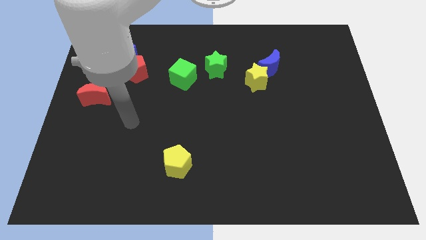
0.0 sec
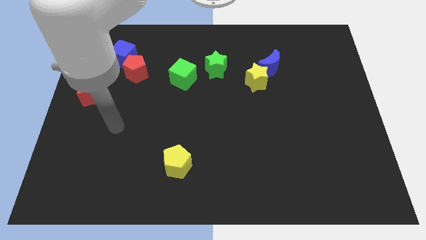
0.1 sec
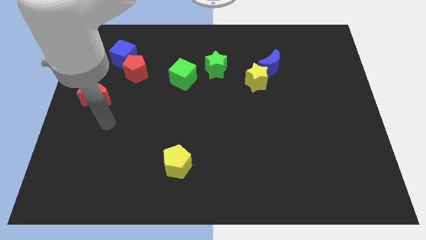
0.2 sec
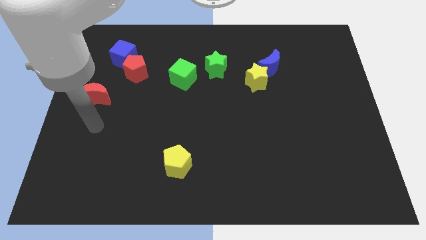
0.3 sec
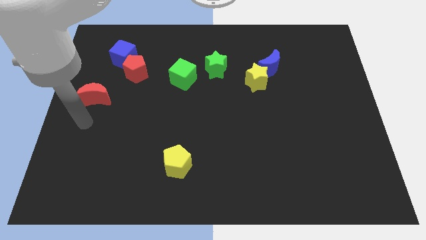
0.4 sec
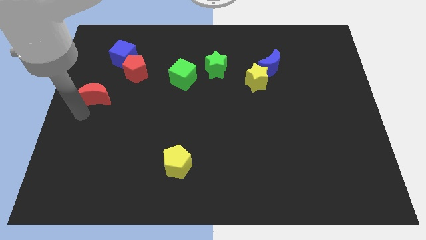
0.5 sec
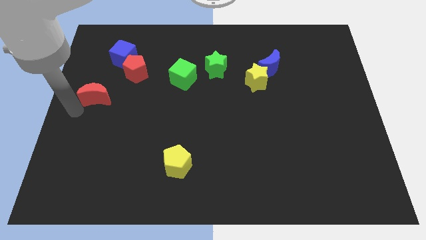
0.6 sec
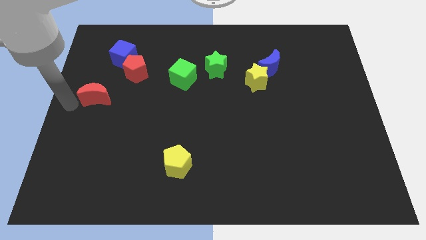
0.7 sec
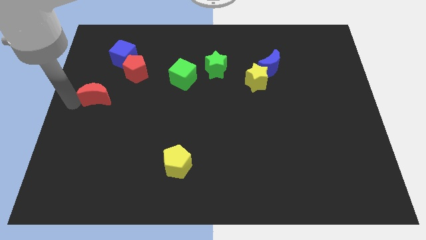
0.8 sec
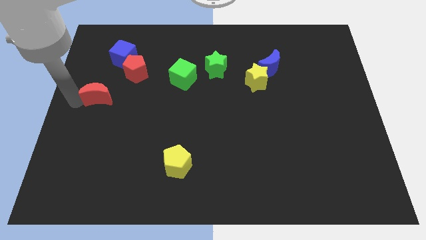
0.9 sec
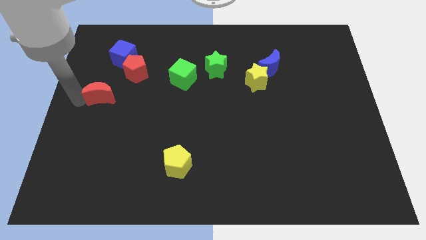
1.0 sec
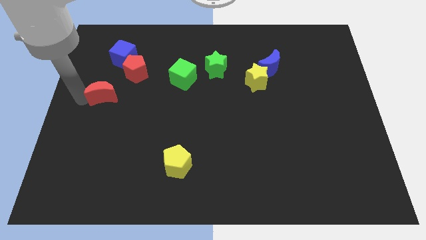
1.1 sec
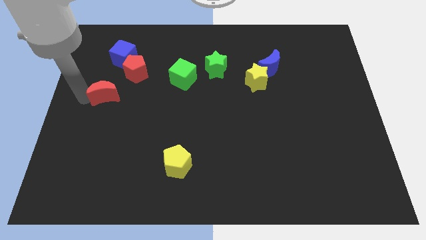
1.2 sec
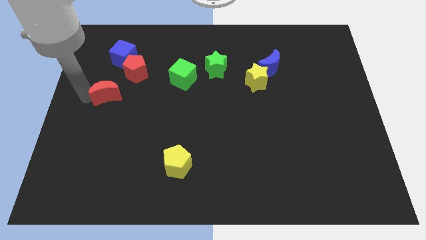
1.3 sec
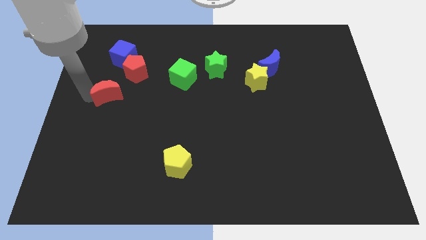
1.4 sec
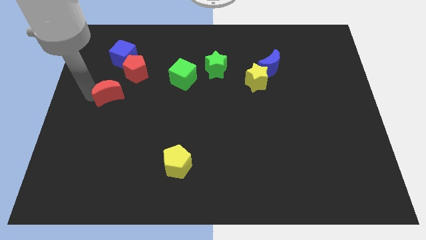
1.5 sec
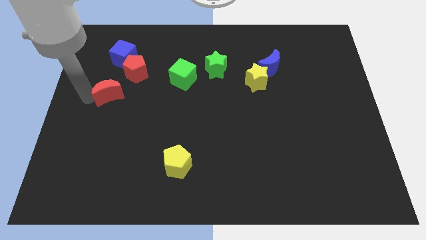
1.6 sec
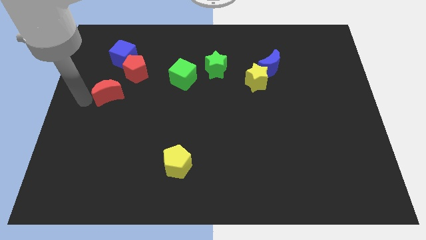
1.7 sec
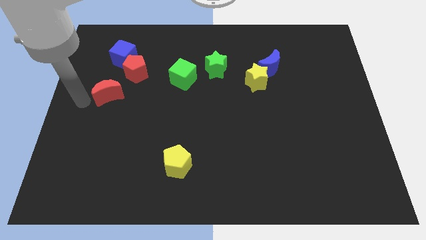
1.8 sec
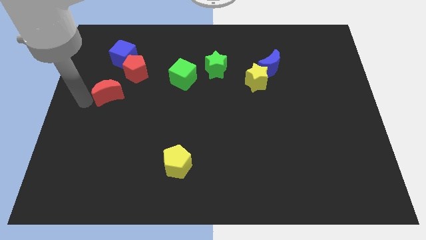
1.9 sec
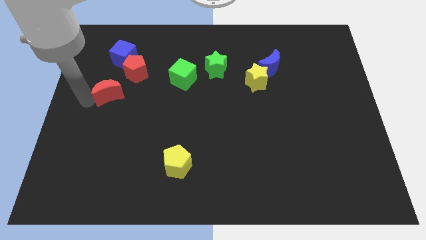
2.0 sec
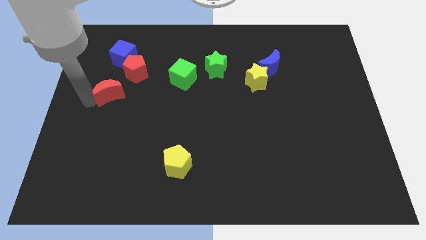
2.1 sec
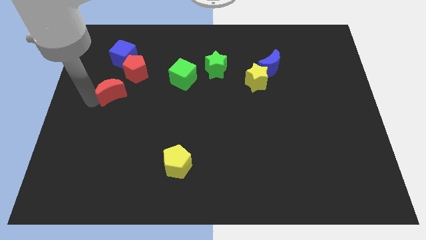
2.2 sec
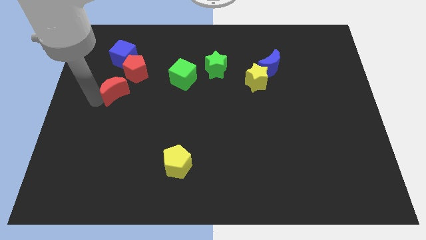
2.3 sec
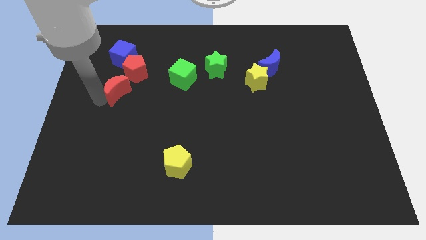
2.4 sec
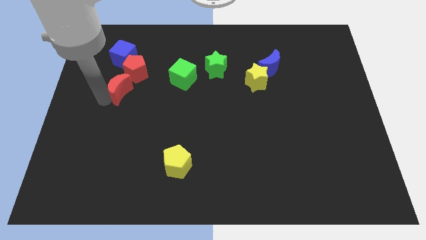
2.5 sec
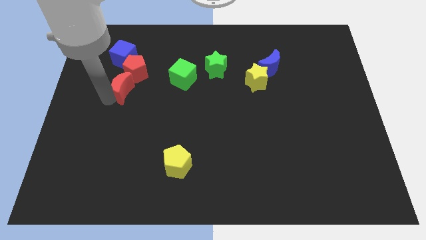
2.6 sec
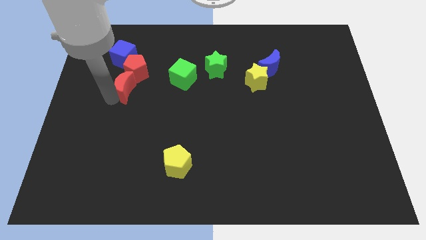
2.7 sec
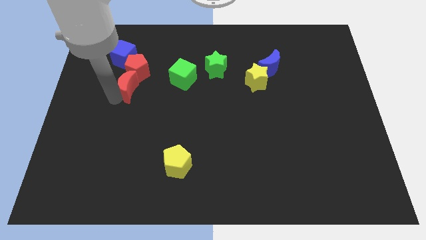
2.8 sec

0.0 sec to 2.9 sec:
move the red moon diagonally upwards and to the right slightly

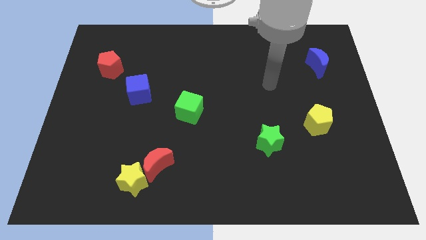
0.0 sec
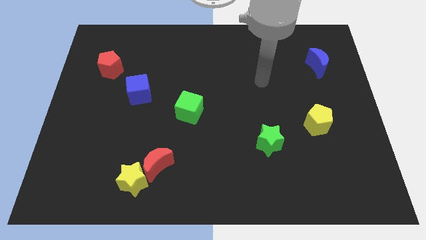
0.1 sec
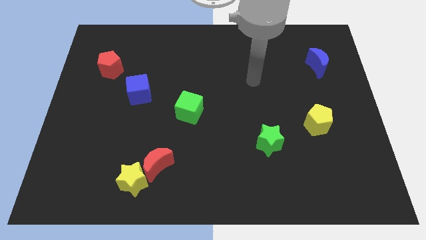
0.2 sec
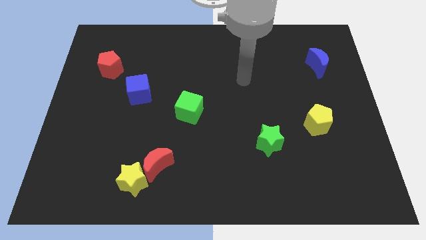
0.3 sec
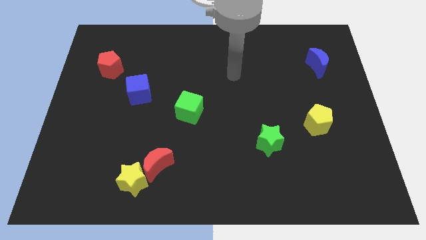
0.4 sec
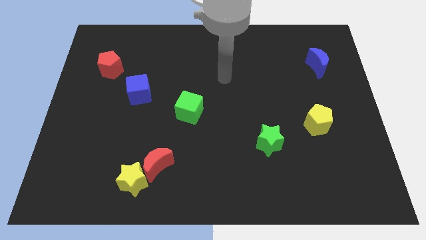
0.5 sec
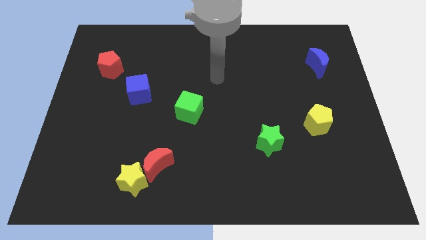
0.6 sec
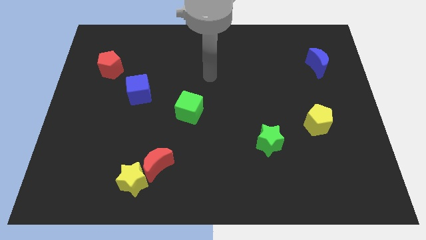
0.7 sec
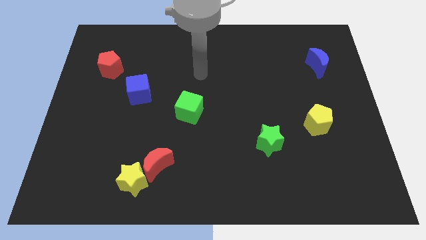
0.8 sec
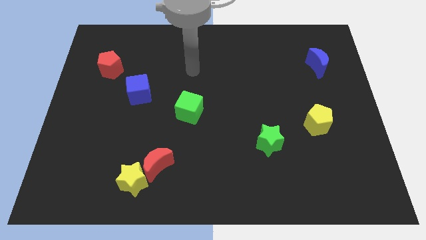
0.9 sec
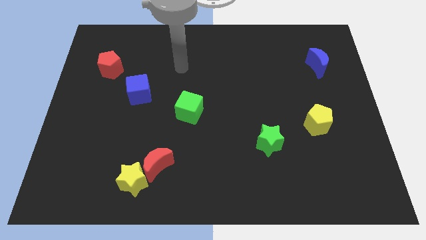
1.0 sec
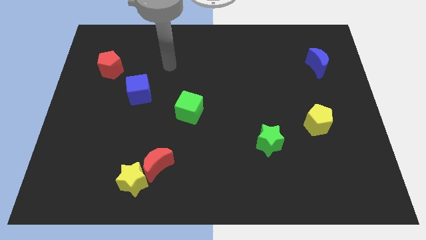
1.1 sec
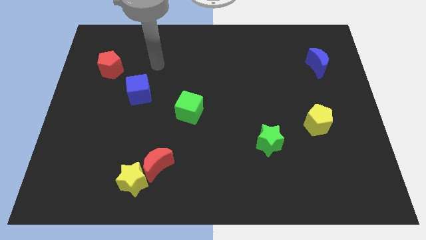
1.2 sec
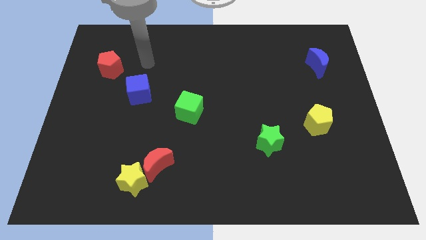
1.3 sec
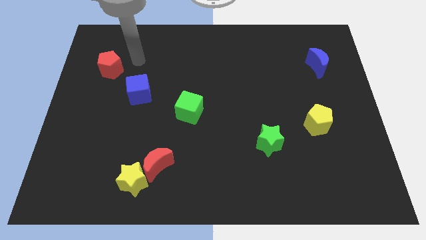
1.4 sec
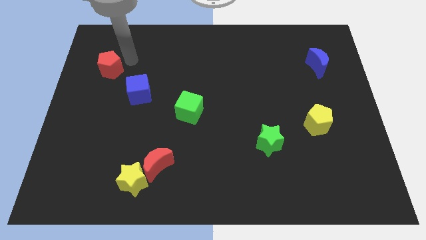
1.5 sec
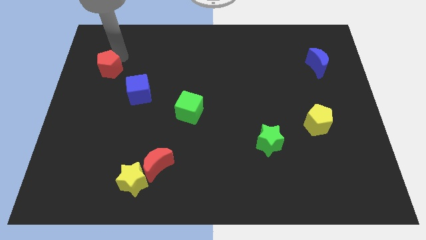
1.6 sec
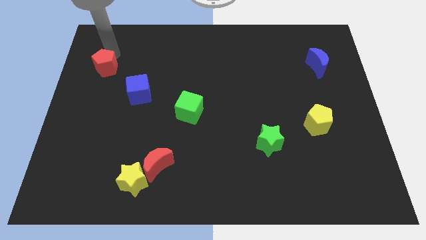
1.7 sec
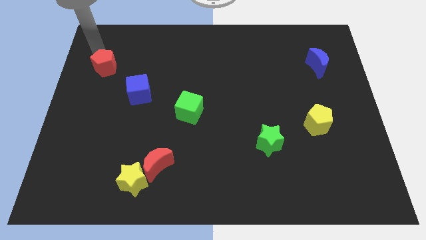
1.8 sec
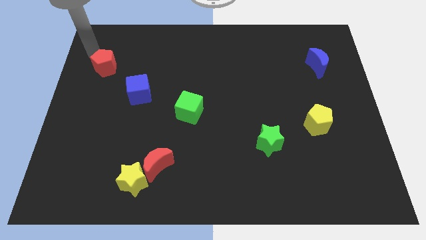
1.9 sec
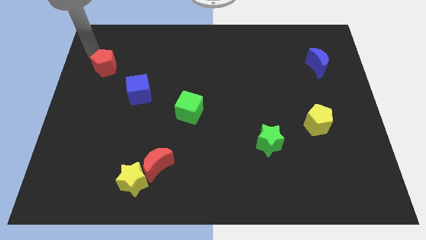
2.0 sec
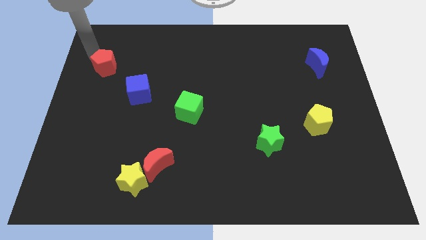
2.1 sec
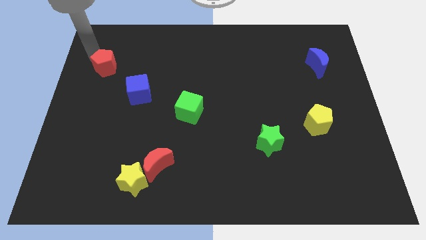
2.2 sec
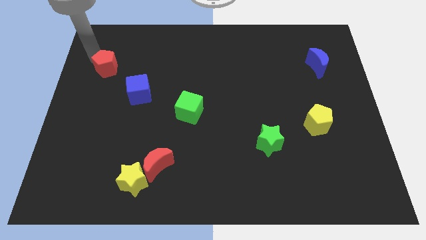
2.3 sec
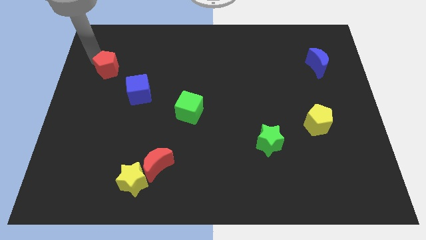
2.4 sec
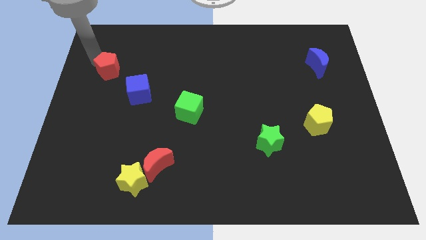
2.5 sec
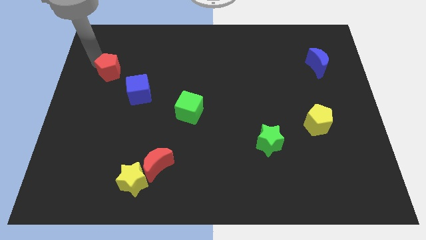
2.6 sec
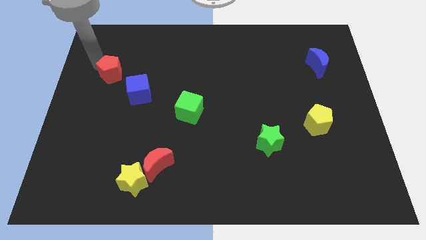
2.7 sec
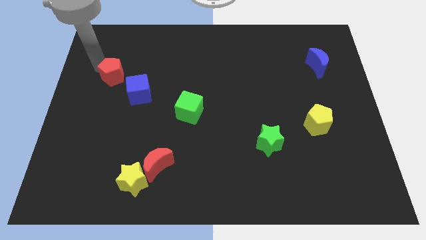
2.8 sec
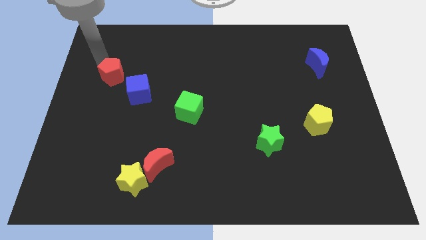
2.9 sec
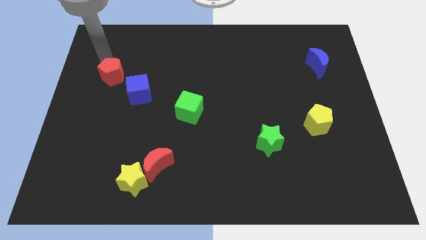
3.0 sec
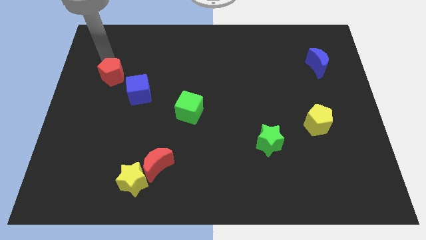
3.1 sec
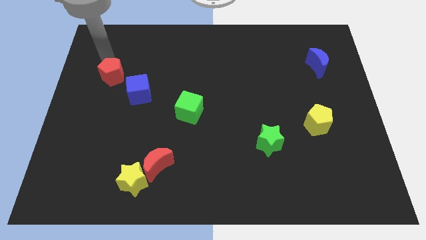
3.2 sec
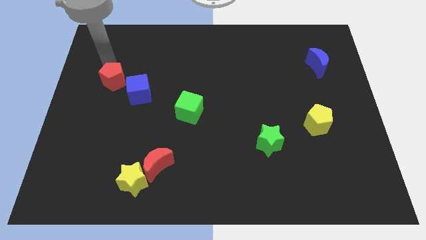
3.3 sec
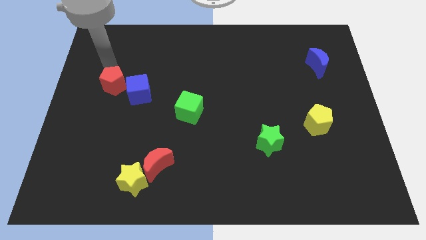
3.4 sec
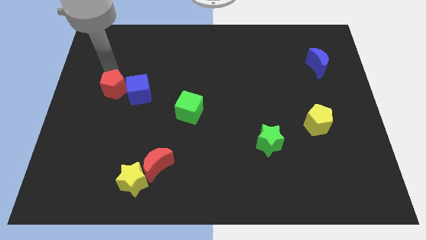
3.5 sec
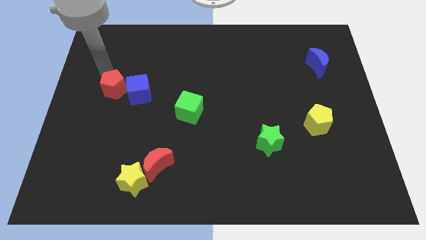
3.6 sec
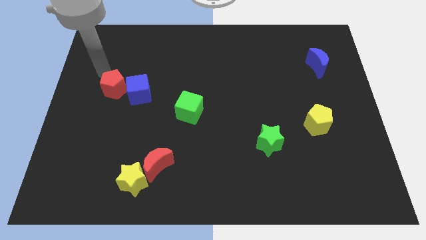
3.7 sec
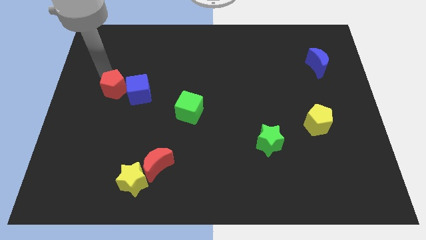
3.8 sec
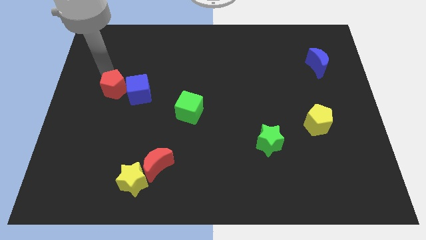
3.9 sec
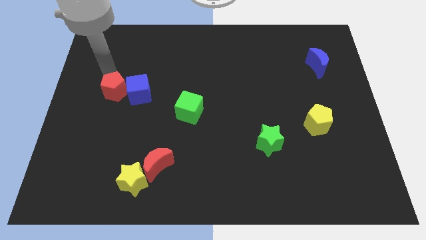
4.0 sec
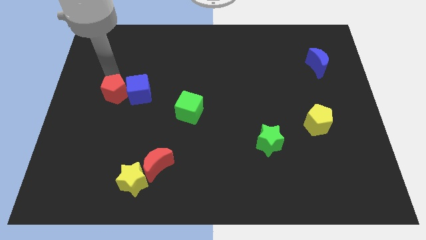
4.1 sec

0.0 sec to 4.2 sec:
push the red pentagon slightly diagonally downwards and to the right

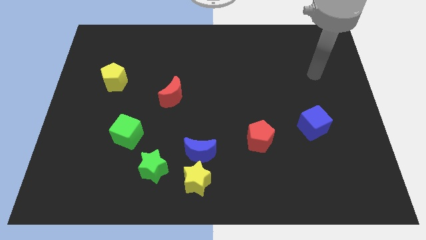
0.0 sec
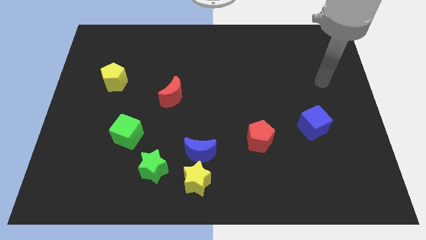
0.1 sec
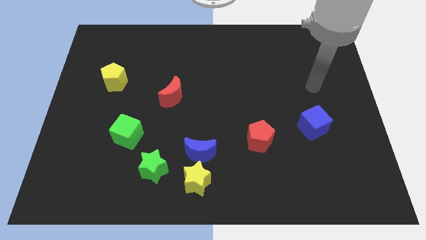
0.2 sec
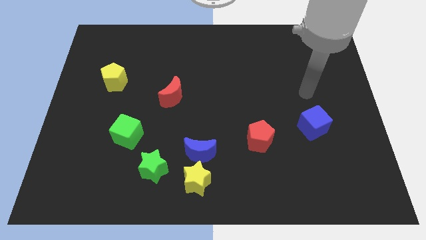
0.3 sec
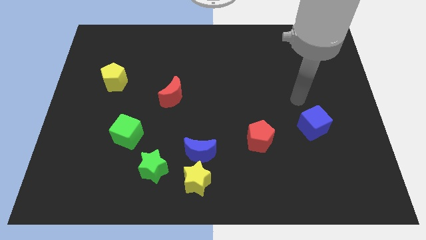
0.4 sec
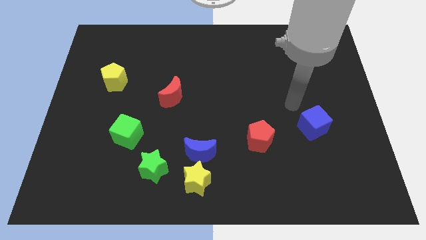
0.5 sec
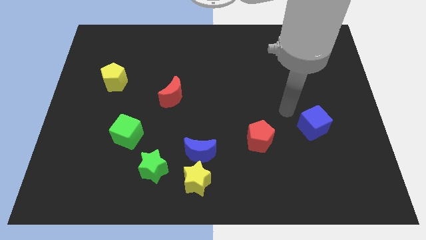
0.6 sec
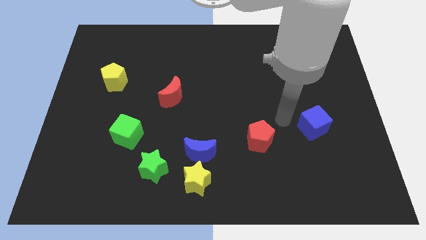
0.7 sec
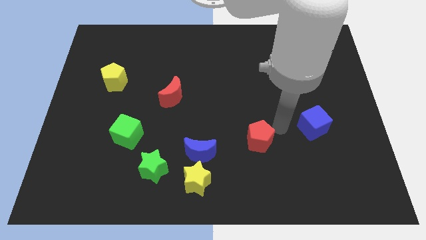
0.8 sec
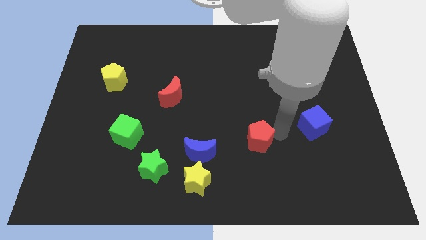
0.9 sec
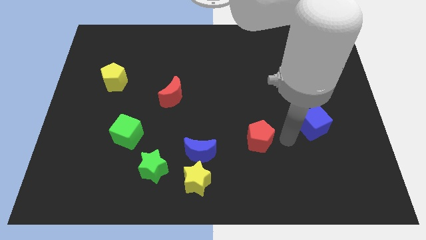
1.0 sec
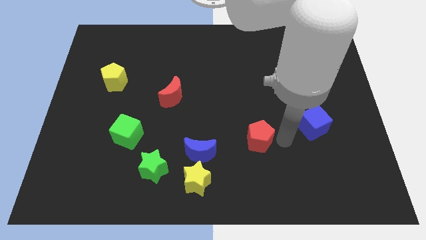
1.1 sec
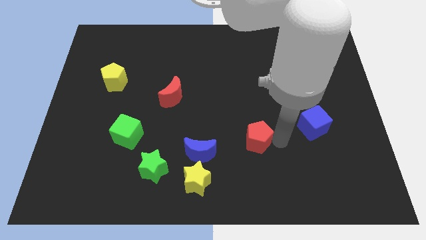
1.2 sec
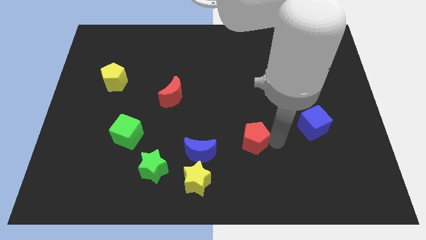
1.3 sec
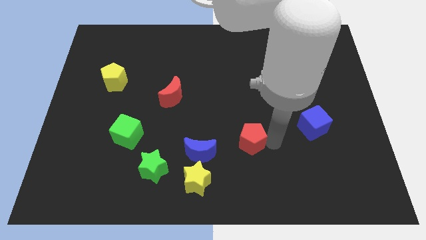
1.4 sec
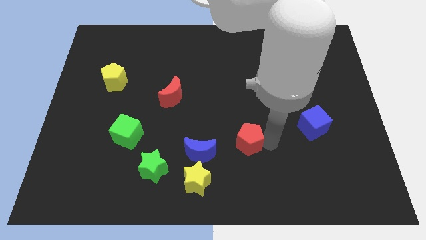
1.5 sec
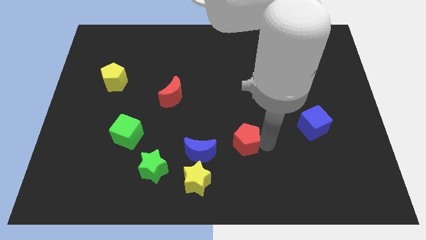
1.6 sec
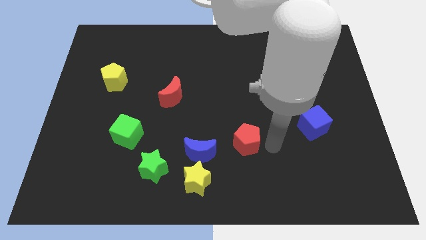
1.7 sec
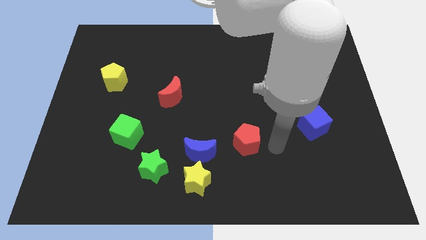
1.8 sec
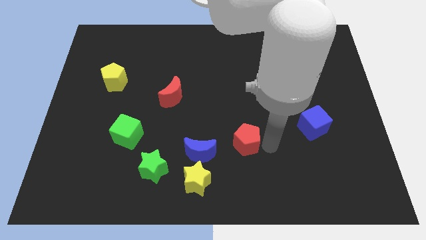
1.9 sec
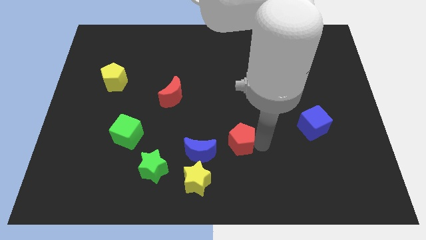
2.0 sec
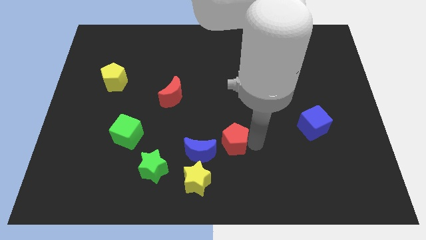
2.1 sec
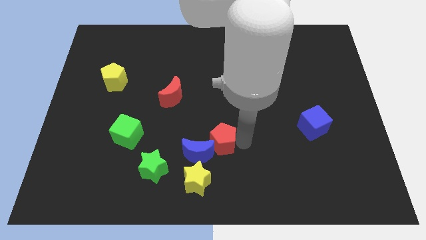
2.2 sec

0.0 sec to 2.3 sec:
slide the red pentagon slightly to the left
